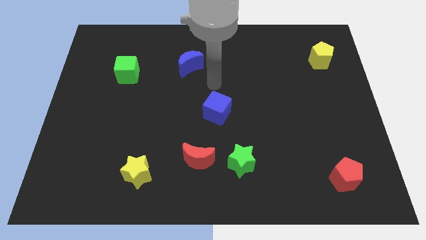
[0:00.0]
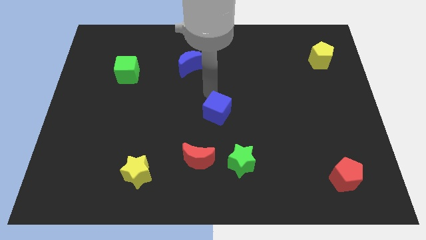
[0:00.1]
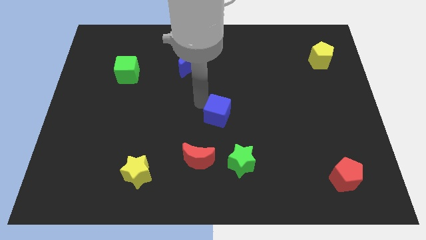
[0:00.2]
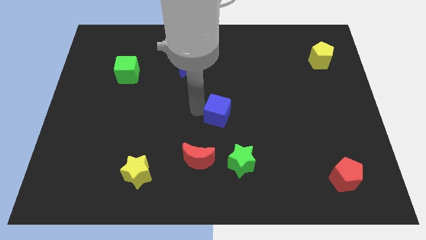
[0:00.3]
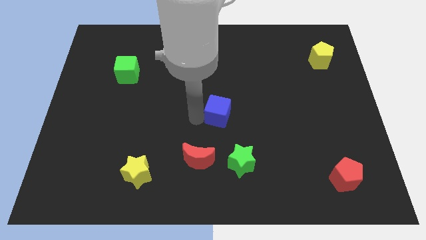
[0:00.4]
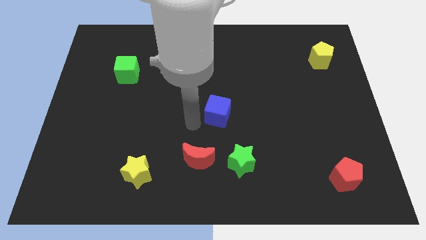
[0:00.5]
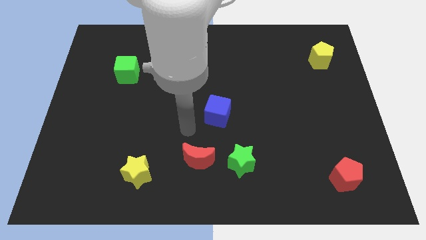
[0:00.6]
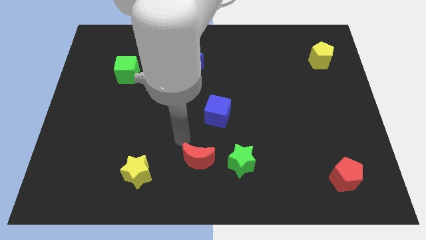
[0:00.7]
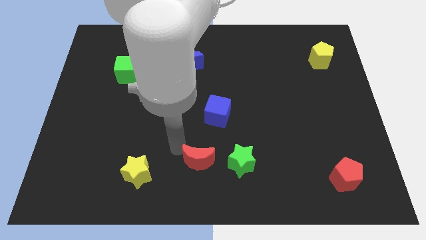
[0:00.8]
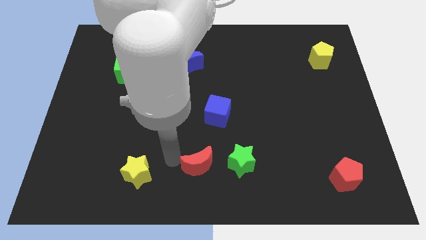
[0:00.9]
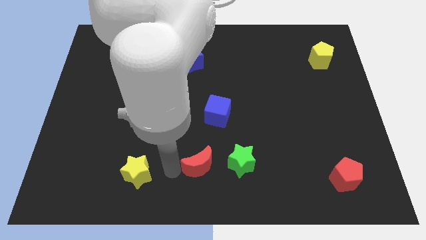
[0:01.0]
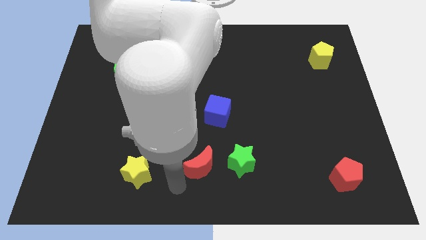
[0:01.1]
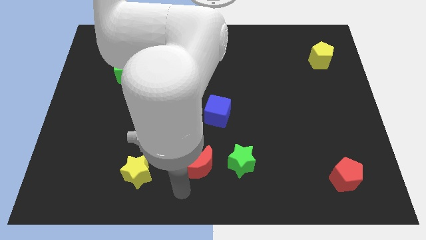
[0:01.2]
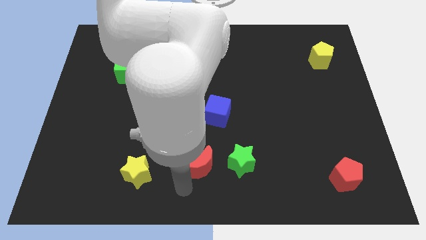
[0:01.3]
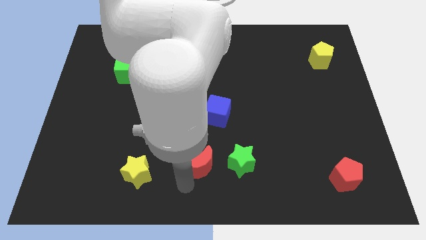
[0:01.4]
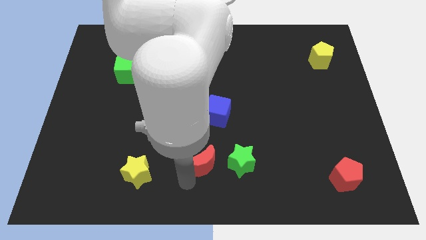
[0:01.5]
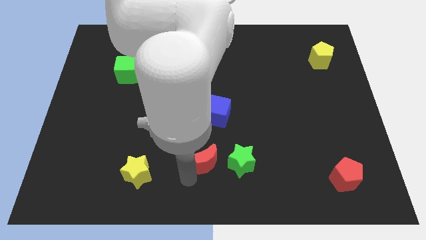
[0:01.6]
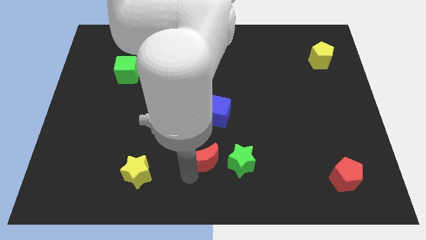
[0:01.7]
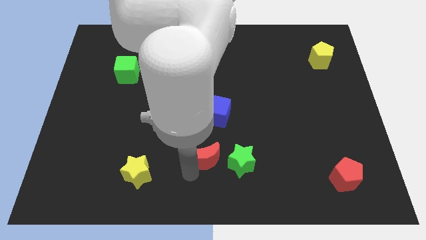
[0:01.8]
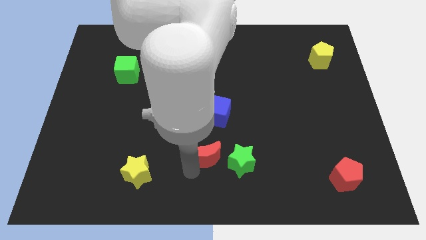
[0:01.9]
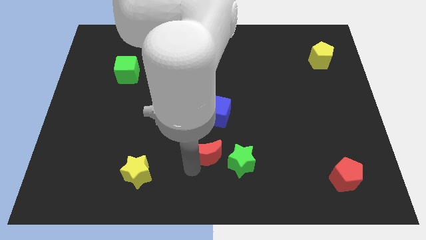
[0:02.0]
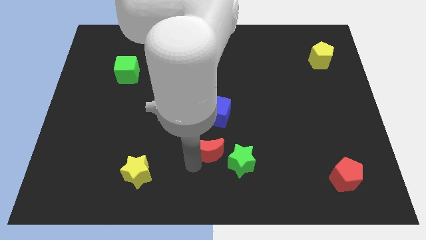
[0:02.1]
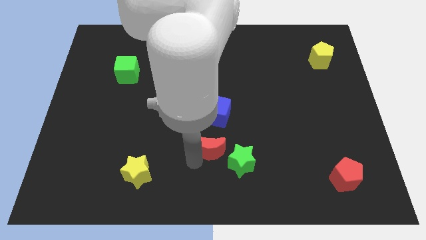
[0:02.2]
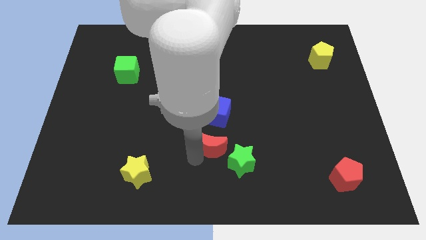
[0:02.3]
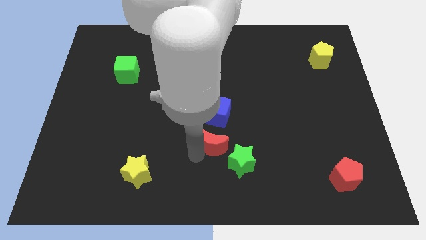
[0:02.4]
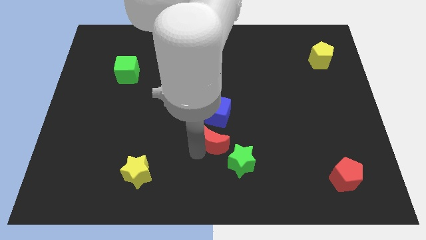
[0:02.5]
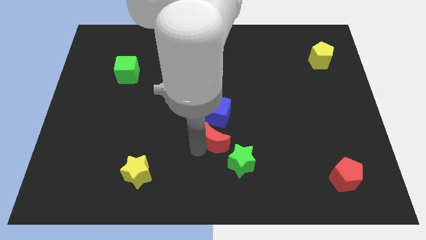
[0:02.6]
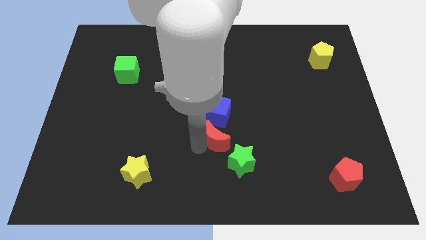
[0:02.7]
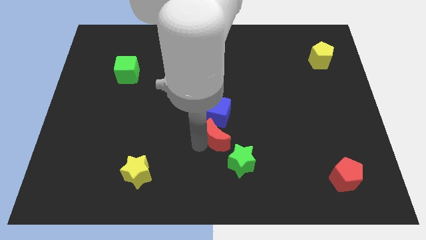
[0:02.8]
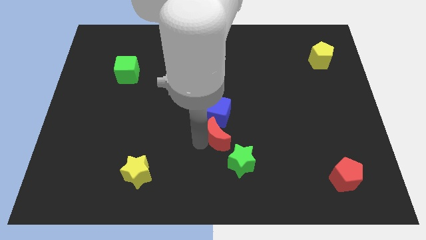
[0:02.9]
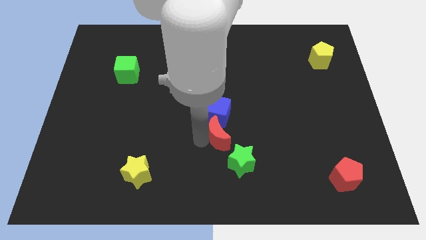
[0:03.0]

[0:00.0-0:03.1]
move the red moon upwards and to the right slightly

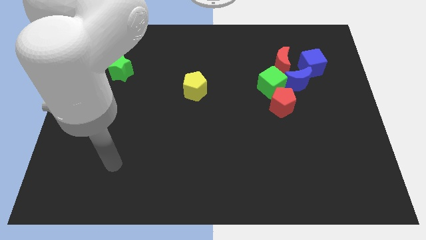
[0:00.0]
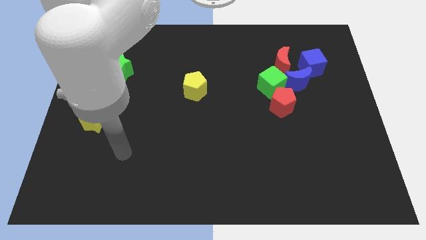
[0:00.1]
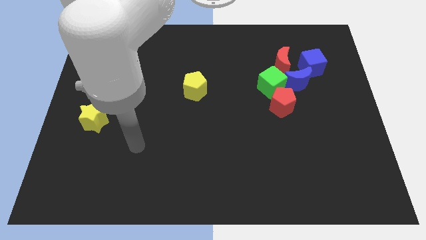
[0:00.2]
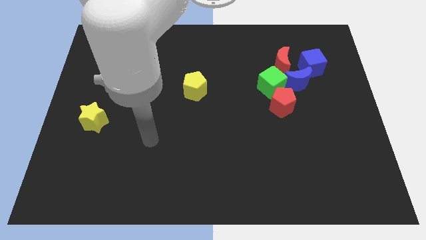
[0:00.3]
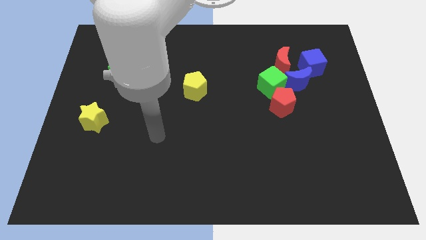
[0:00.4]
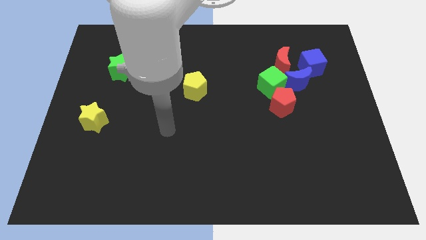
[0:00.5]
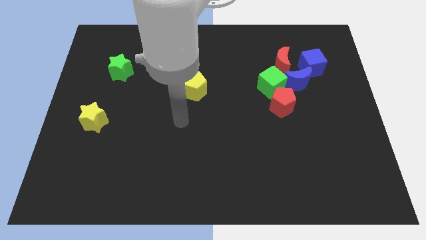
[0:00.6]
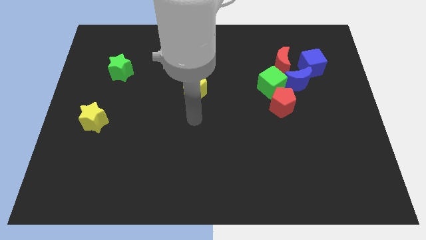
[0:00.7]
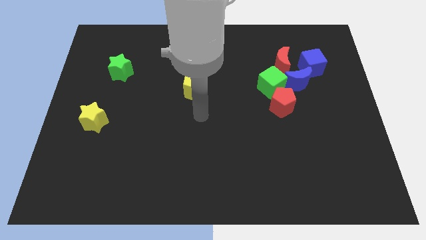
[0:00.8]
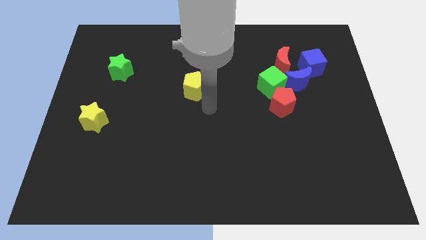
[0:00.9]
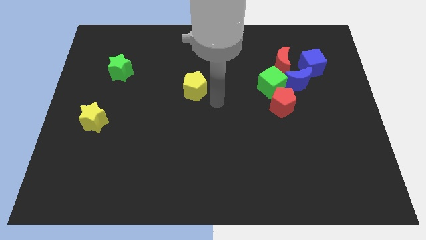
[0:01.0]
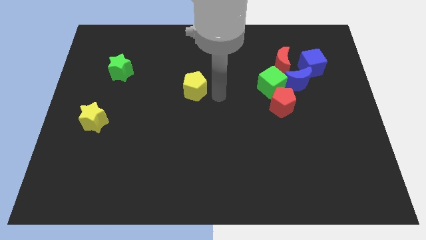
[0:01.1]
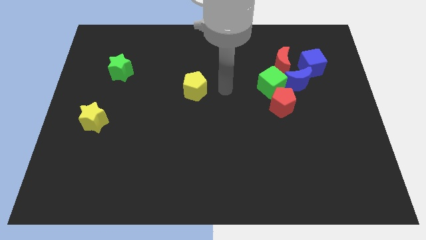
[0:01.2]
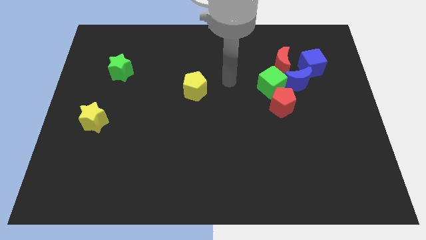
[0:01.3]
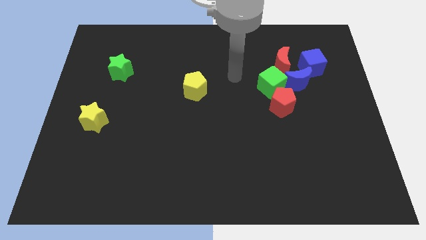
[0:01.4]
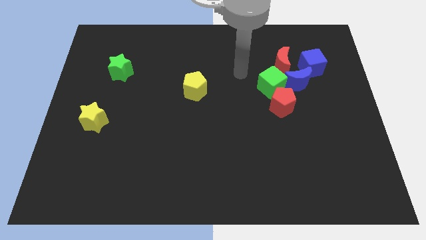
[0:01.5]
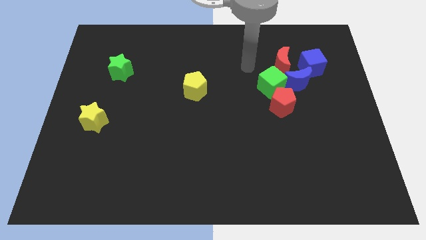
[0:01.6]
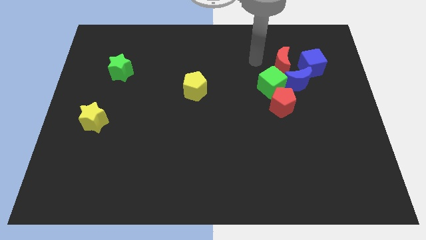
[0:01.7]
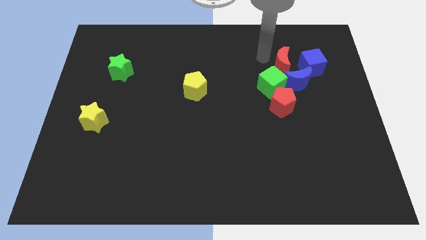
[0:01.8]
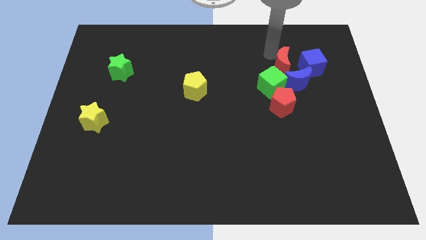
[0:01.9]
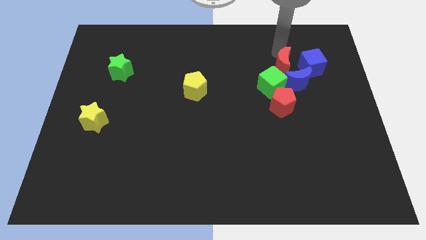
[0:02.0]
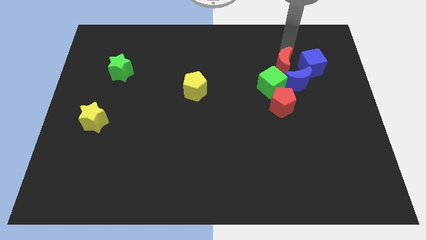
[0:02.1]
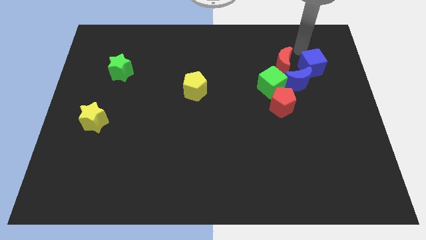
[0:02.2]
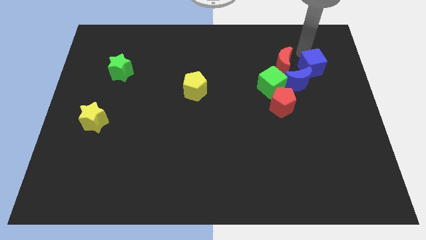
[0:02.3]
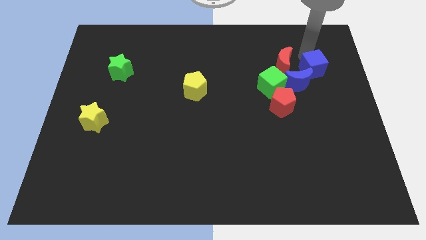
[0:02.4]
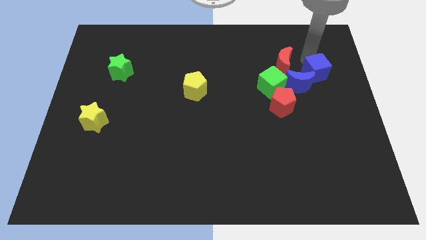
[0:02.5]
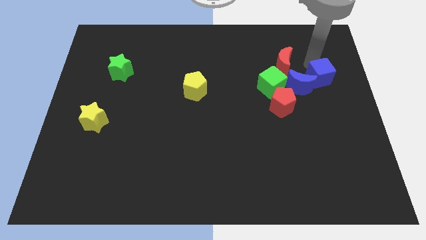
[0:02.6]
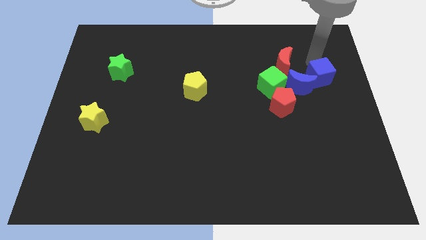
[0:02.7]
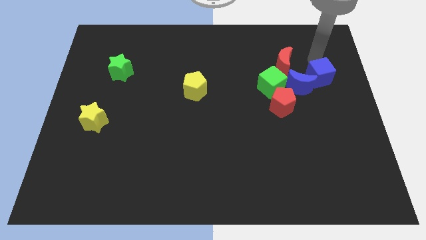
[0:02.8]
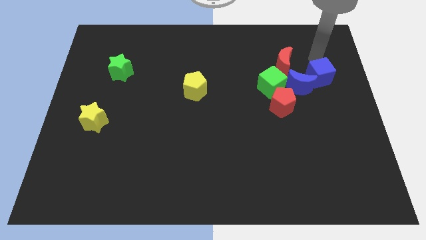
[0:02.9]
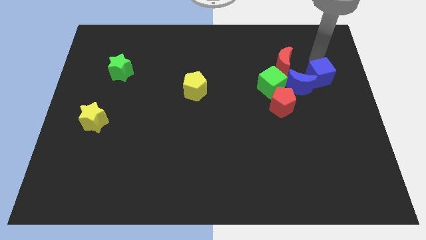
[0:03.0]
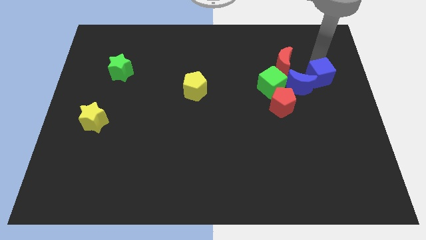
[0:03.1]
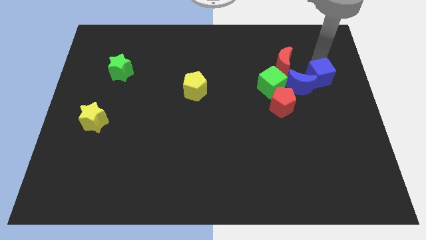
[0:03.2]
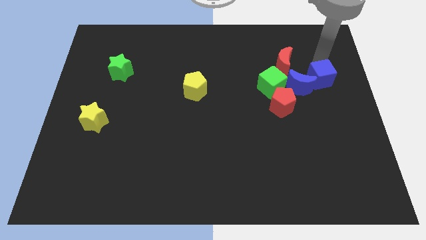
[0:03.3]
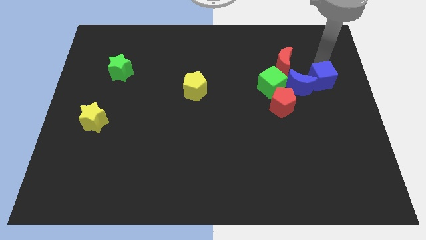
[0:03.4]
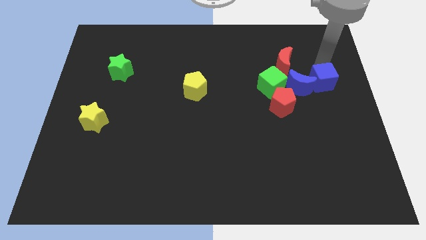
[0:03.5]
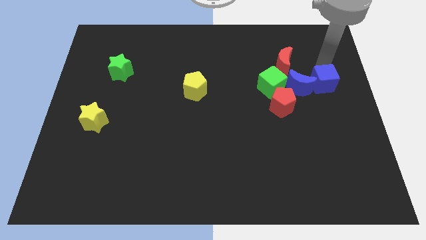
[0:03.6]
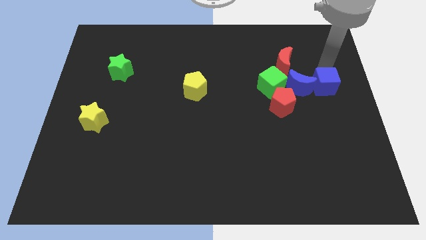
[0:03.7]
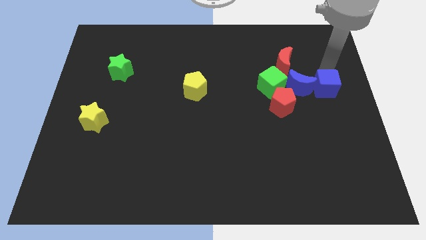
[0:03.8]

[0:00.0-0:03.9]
push the blue cube a little bit down

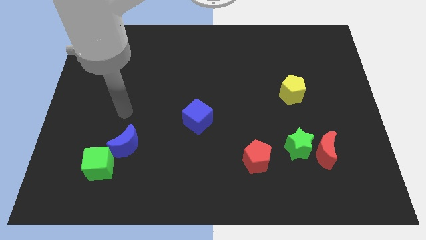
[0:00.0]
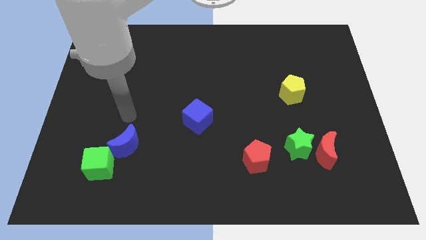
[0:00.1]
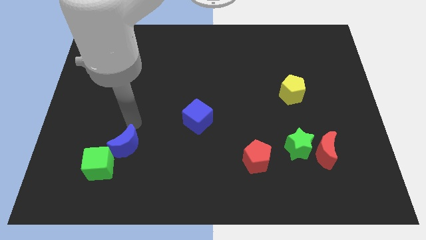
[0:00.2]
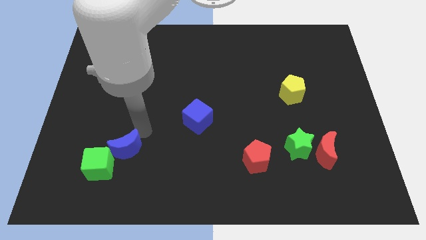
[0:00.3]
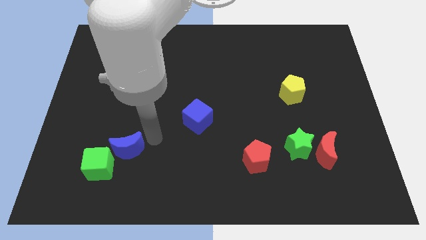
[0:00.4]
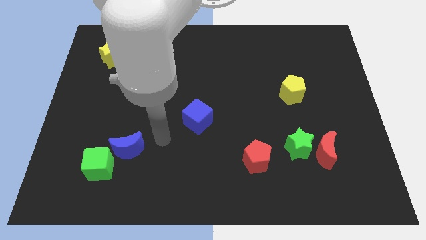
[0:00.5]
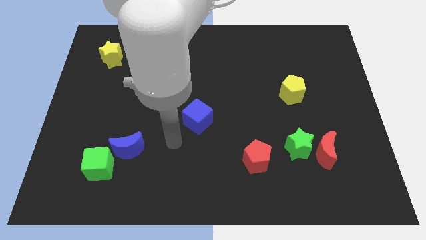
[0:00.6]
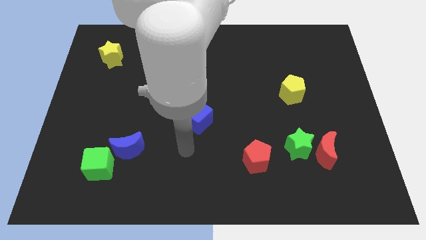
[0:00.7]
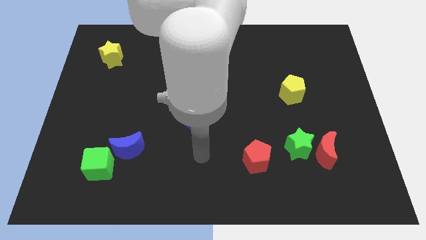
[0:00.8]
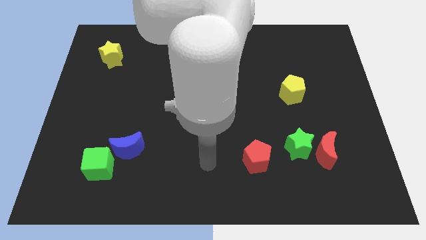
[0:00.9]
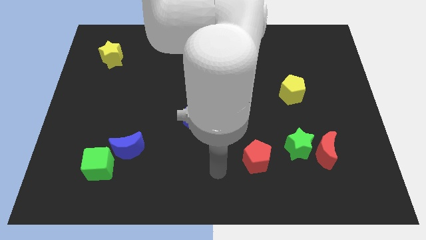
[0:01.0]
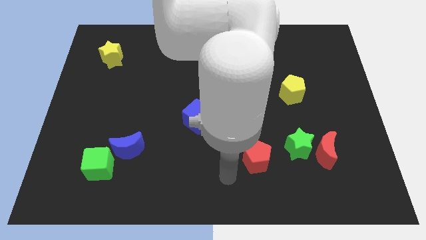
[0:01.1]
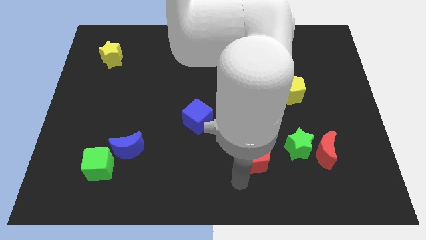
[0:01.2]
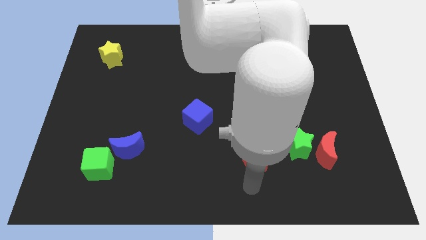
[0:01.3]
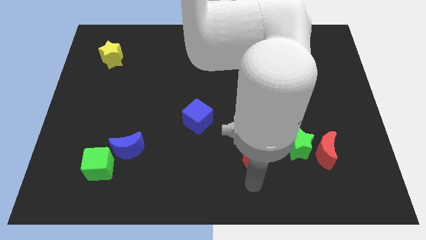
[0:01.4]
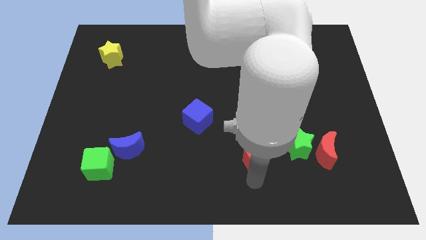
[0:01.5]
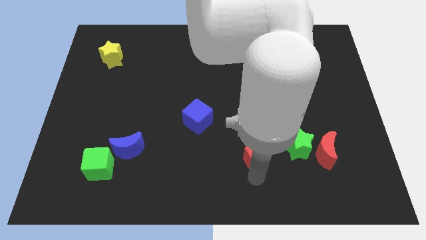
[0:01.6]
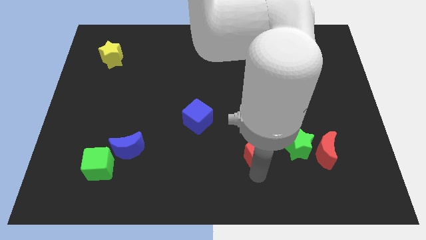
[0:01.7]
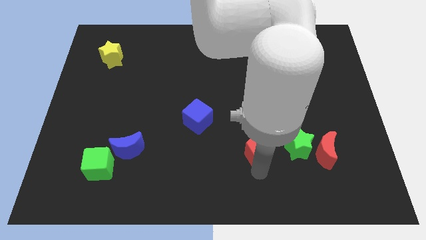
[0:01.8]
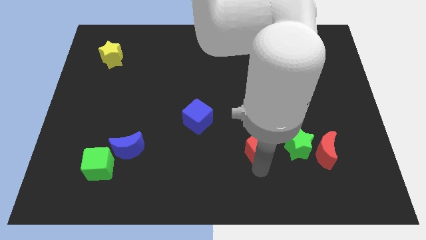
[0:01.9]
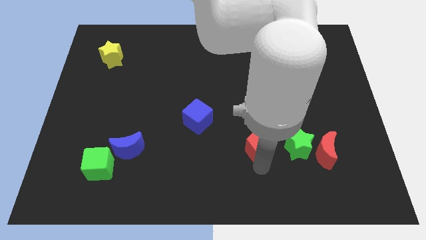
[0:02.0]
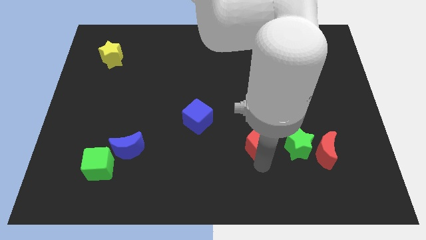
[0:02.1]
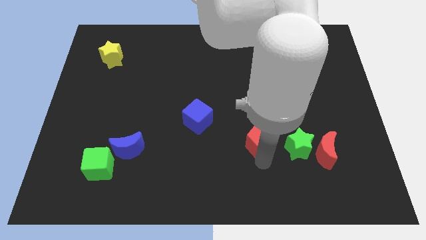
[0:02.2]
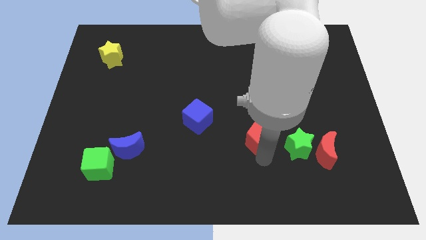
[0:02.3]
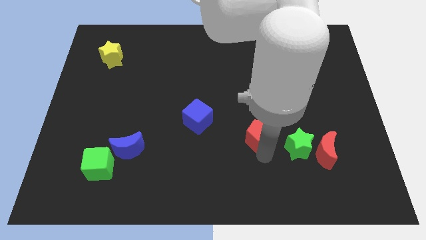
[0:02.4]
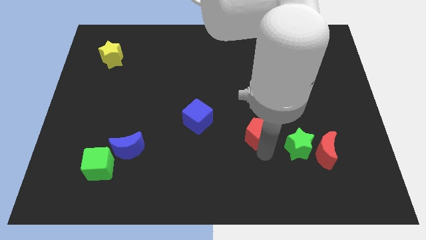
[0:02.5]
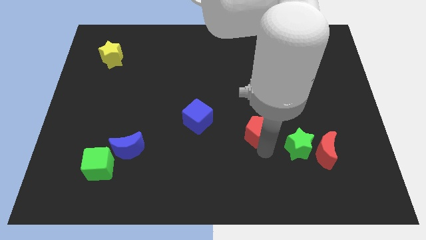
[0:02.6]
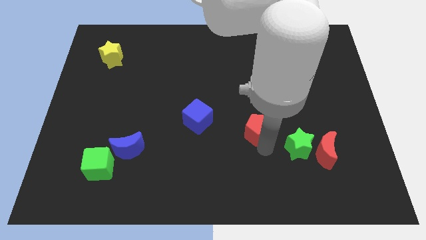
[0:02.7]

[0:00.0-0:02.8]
push the red pentagon a little bit upwards
